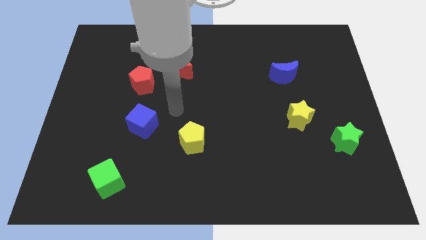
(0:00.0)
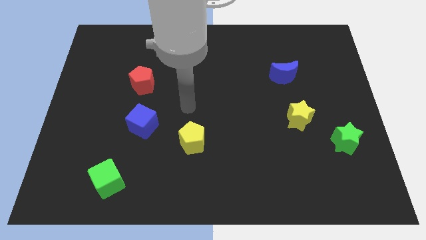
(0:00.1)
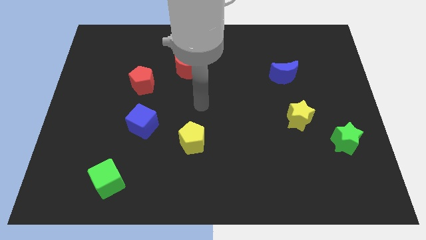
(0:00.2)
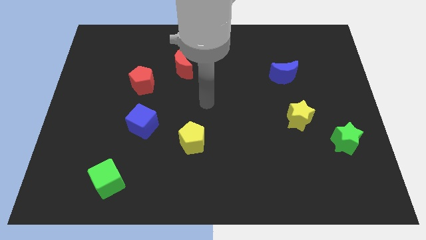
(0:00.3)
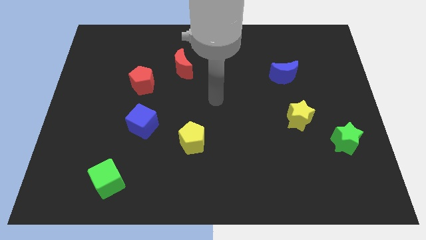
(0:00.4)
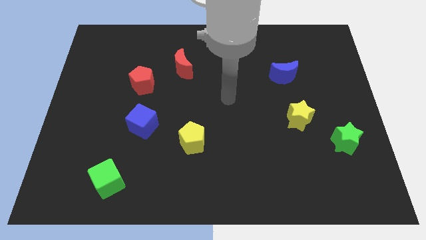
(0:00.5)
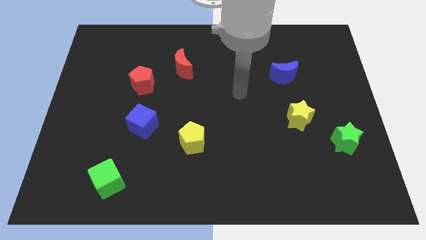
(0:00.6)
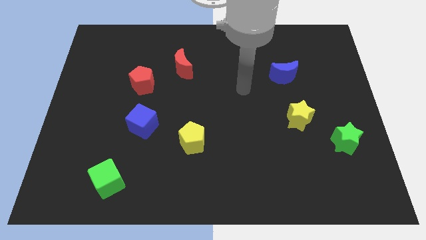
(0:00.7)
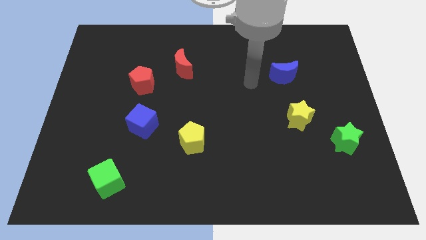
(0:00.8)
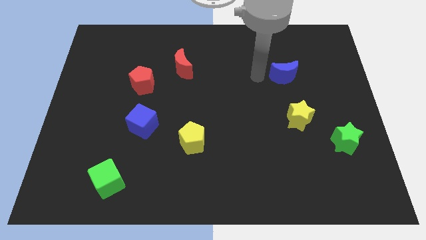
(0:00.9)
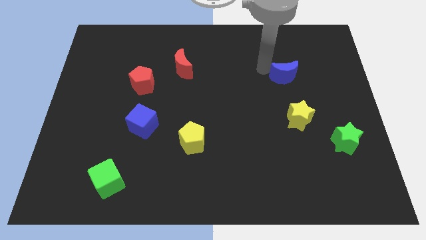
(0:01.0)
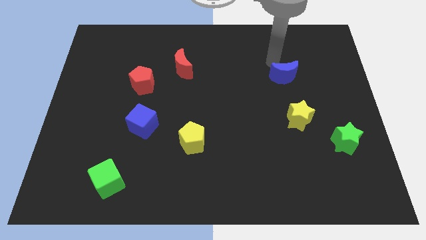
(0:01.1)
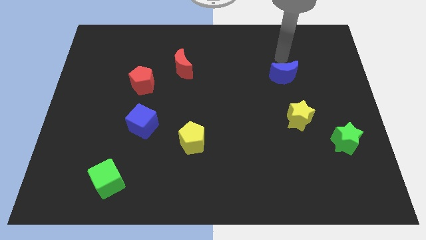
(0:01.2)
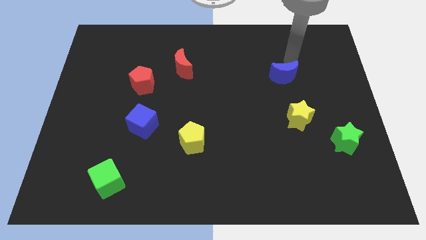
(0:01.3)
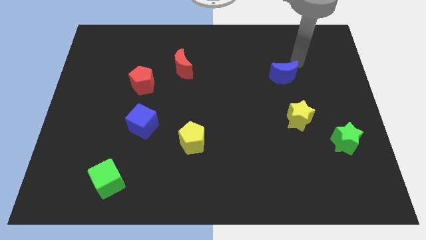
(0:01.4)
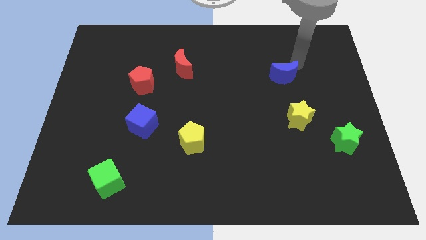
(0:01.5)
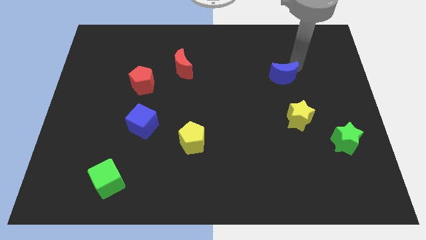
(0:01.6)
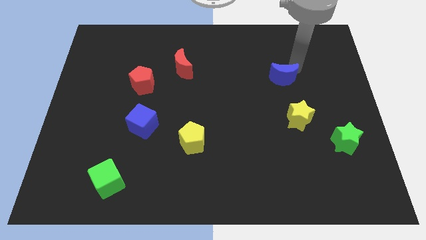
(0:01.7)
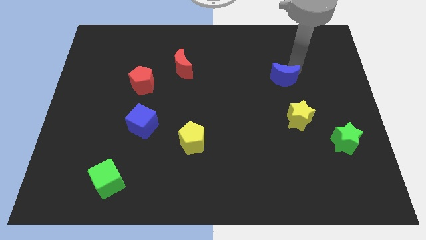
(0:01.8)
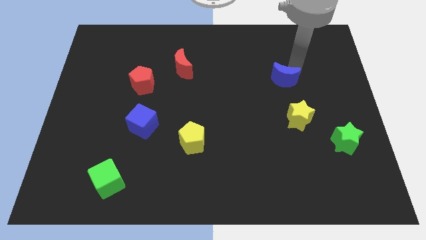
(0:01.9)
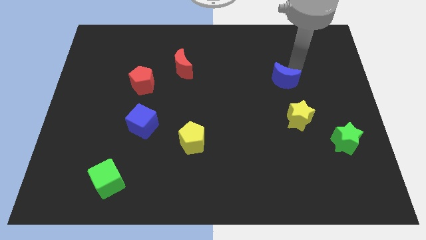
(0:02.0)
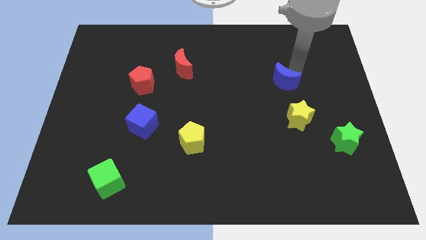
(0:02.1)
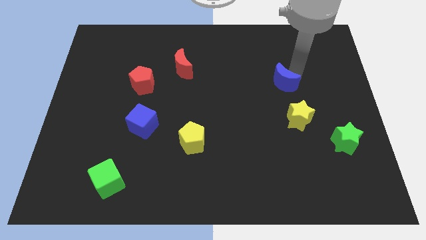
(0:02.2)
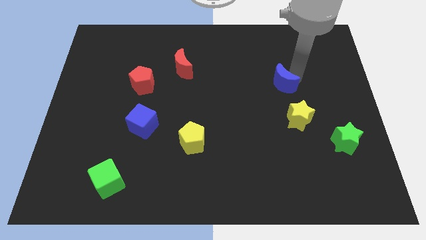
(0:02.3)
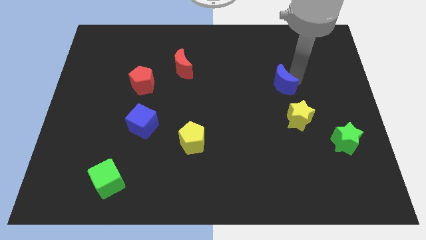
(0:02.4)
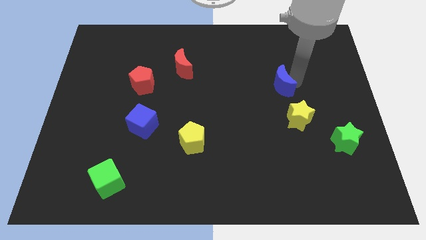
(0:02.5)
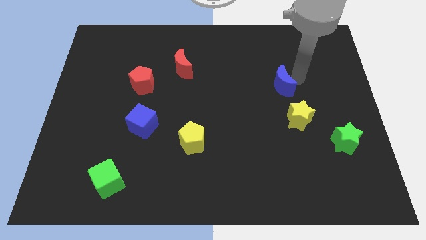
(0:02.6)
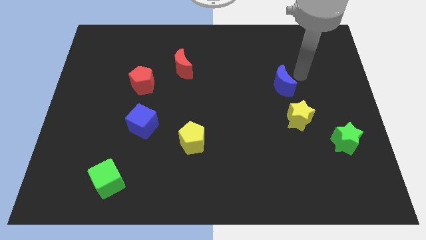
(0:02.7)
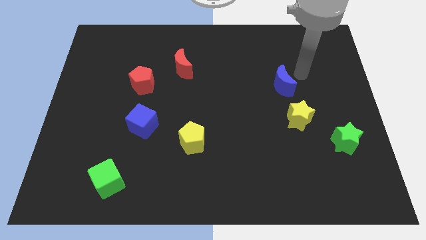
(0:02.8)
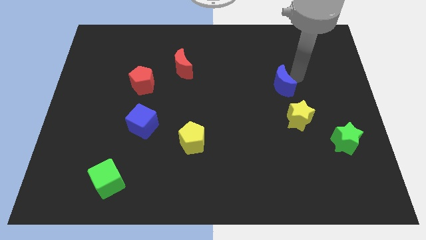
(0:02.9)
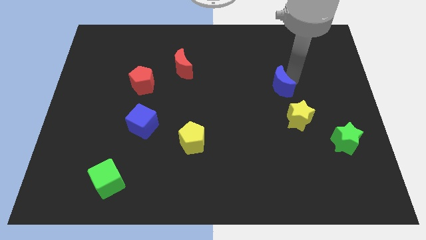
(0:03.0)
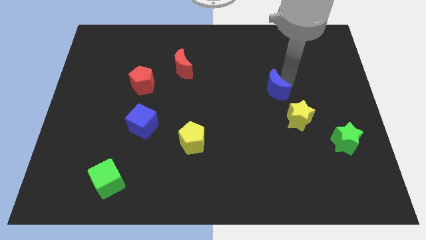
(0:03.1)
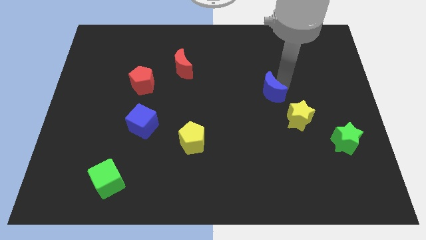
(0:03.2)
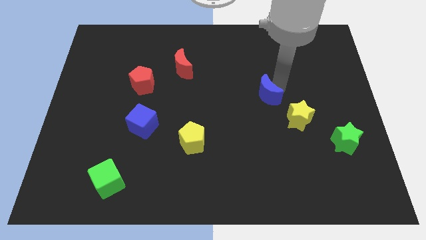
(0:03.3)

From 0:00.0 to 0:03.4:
push the blue moon diagonally downwards and left a bit

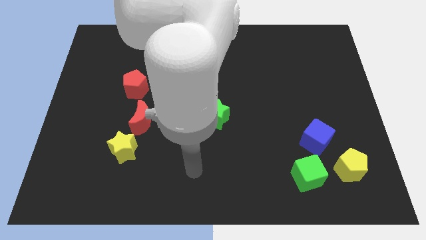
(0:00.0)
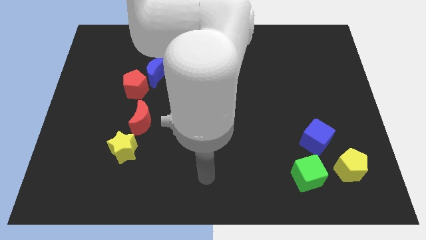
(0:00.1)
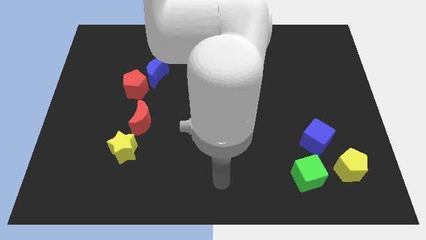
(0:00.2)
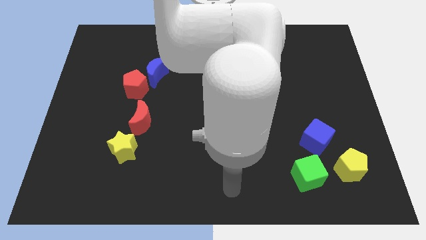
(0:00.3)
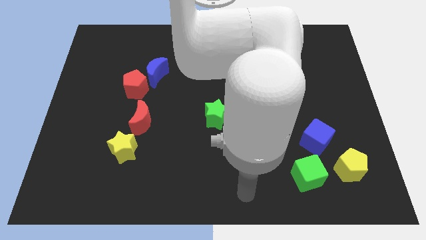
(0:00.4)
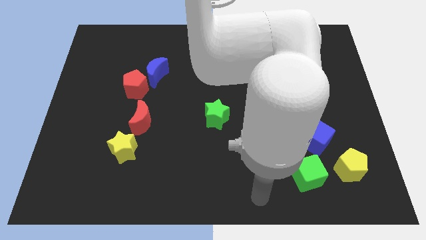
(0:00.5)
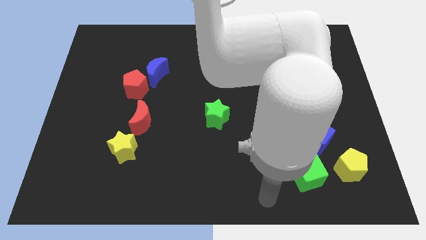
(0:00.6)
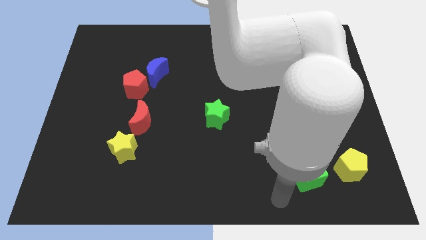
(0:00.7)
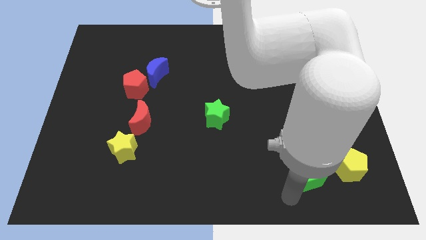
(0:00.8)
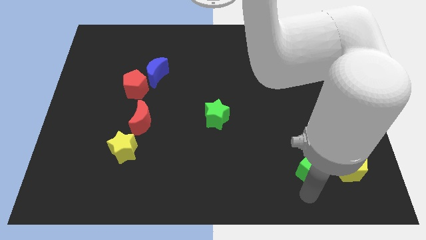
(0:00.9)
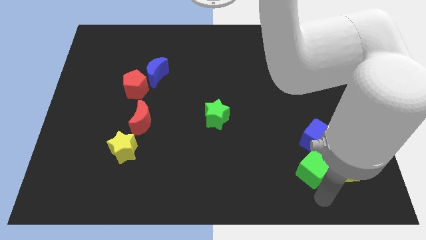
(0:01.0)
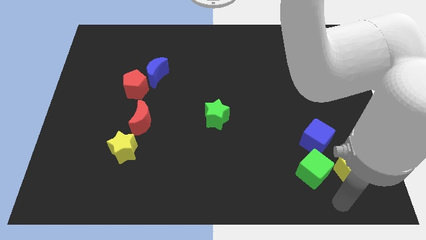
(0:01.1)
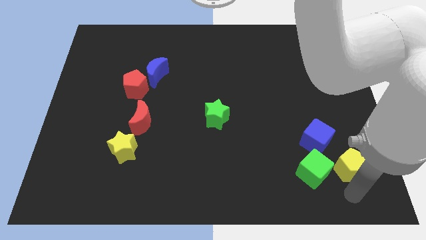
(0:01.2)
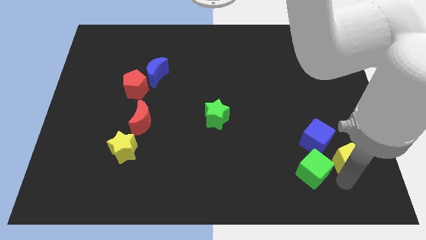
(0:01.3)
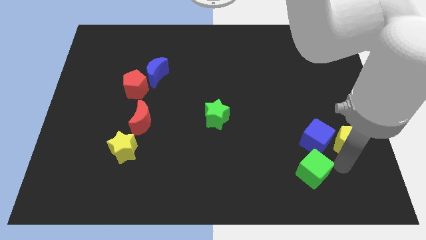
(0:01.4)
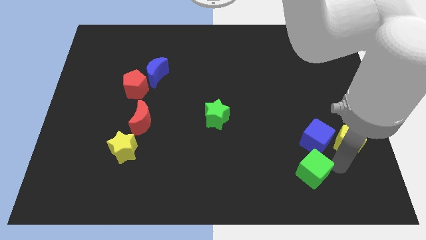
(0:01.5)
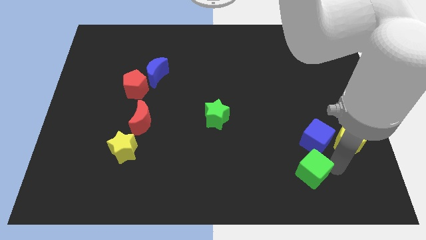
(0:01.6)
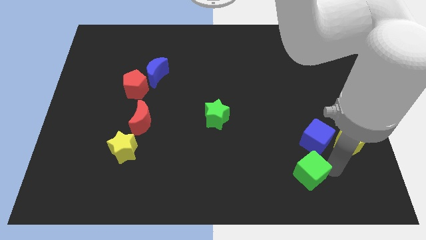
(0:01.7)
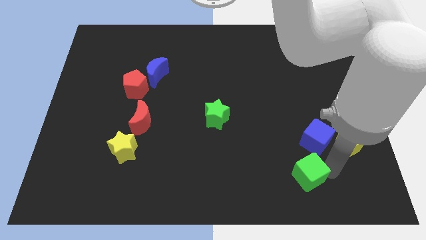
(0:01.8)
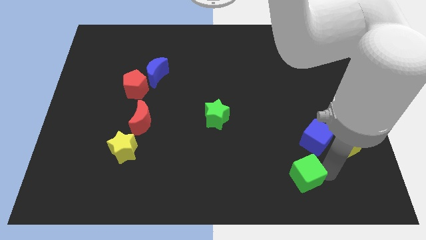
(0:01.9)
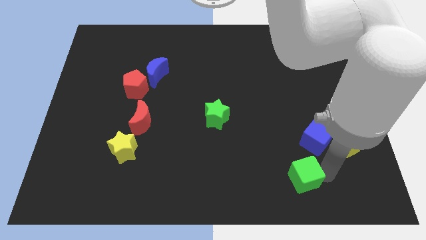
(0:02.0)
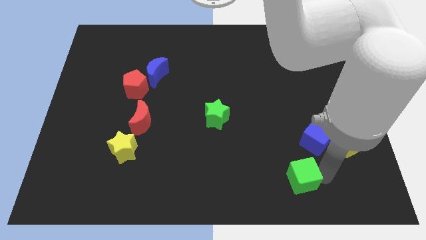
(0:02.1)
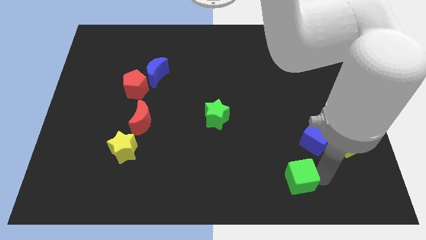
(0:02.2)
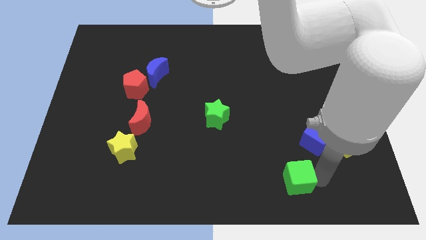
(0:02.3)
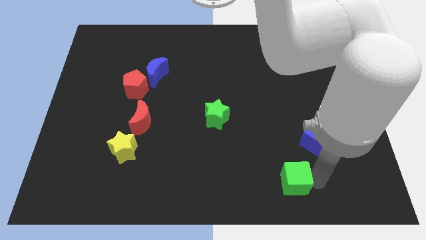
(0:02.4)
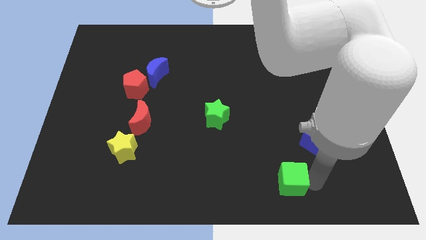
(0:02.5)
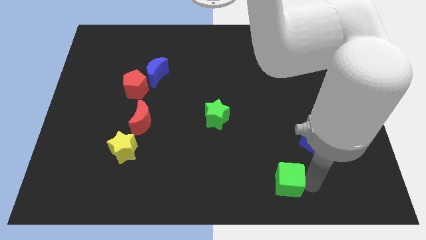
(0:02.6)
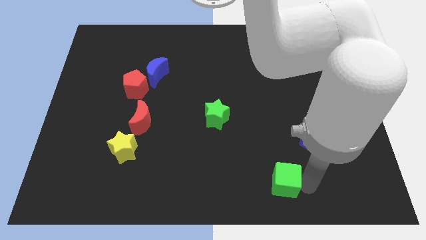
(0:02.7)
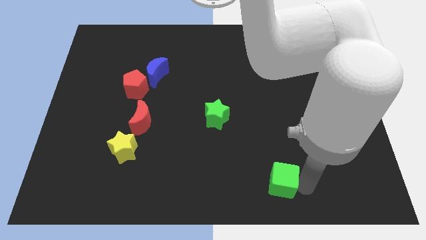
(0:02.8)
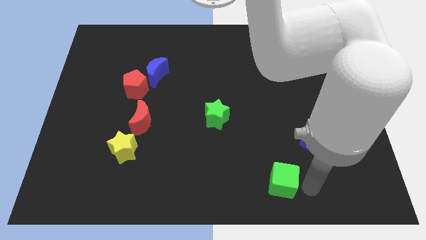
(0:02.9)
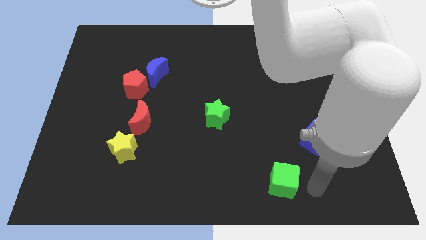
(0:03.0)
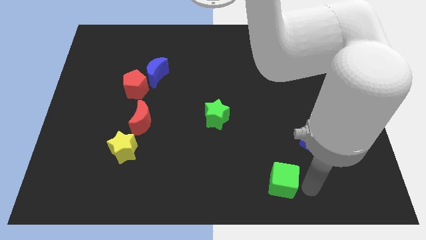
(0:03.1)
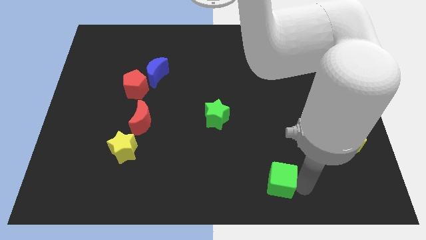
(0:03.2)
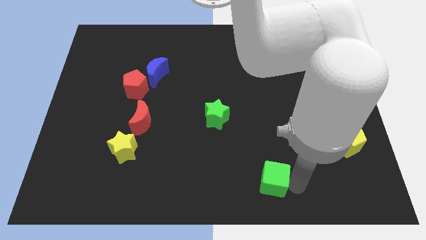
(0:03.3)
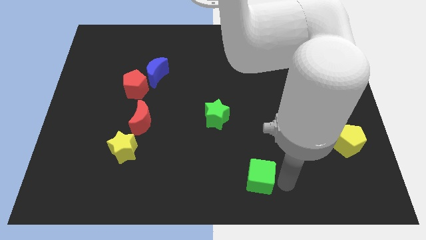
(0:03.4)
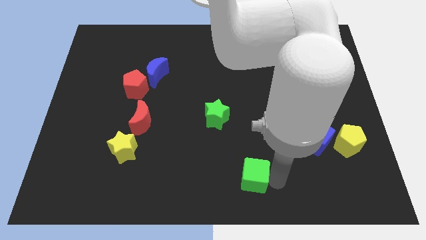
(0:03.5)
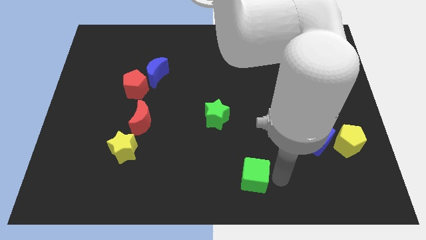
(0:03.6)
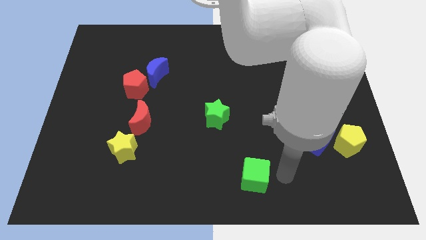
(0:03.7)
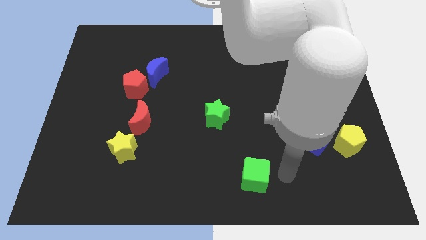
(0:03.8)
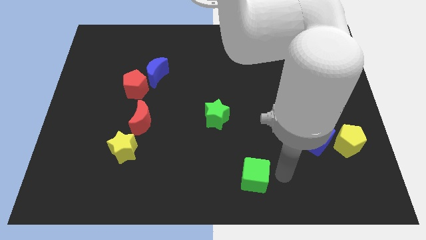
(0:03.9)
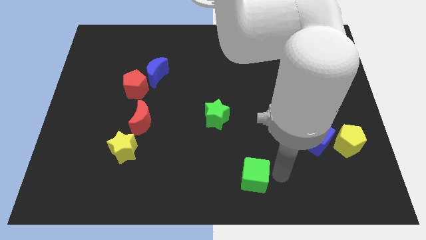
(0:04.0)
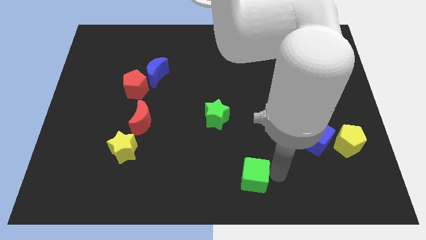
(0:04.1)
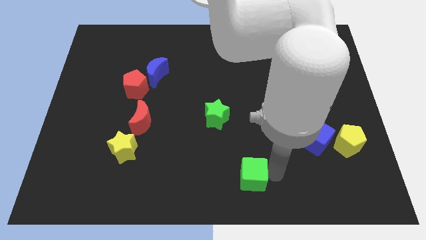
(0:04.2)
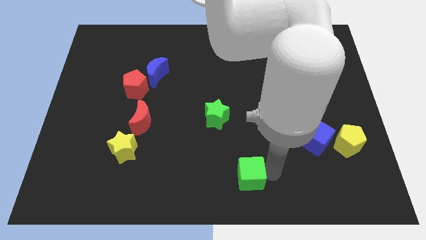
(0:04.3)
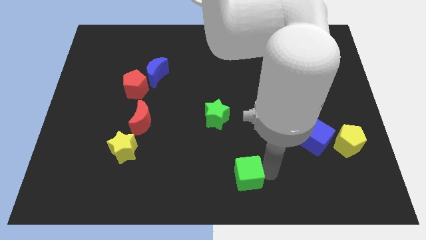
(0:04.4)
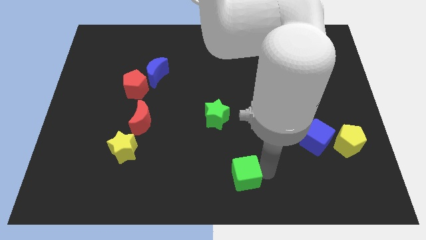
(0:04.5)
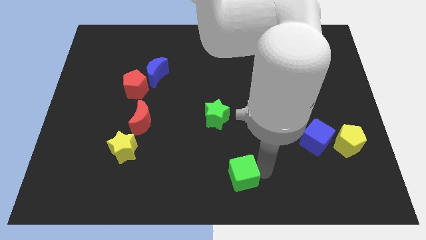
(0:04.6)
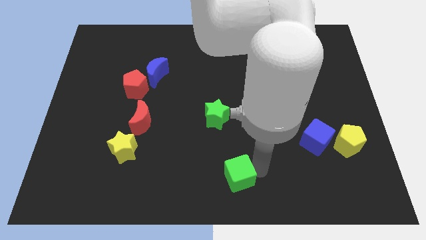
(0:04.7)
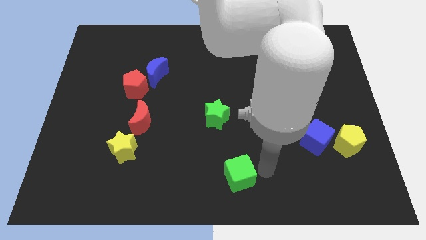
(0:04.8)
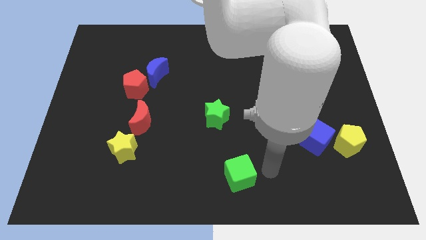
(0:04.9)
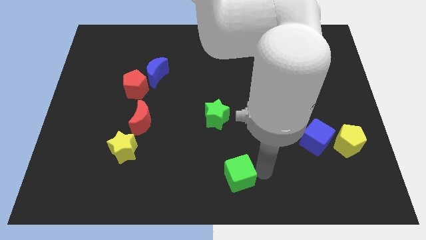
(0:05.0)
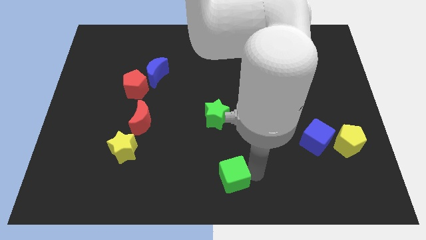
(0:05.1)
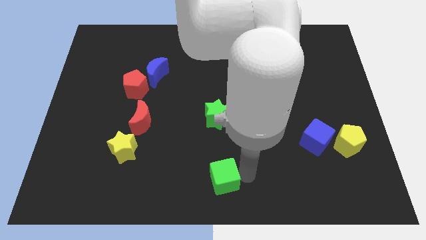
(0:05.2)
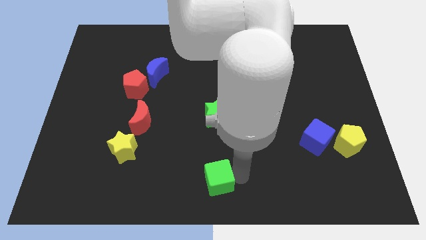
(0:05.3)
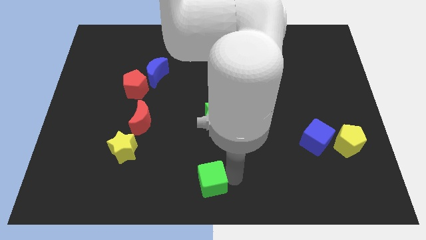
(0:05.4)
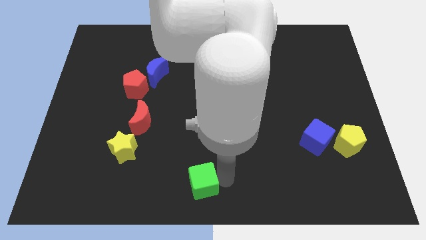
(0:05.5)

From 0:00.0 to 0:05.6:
slide the green cube to the left
